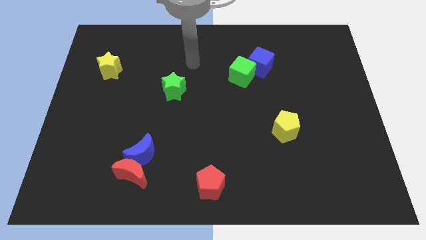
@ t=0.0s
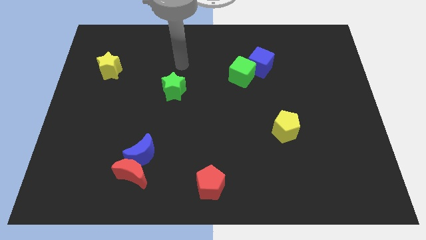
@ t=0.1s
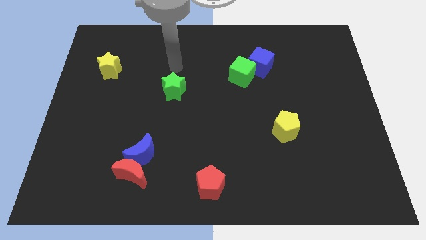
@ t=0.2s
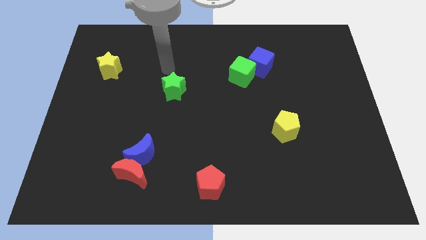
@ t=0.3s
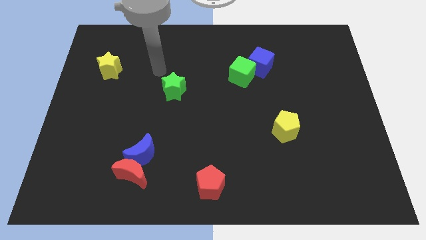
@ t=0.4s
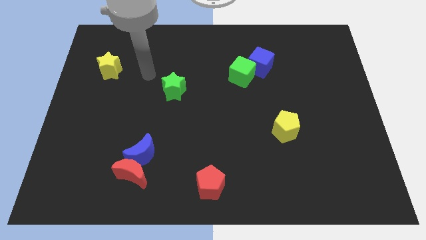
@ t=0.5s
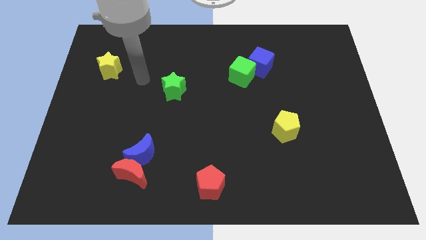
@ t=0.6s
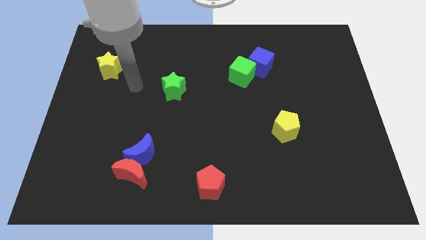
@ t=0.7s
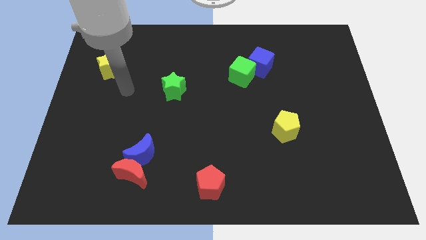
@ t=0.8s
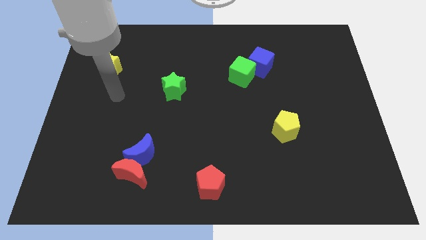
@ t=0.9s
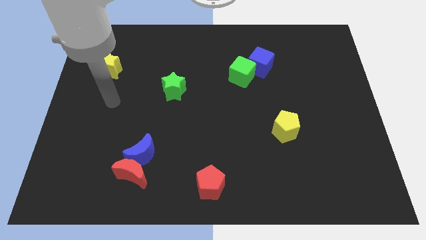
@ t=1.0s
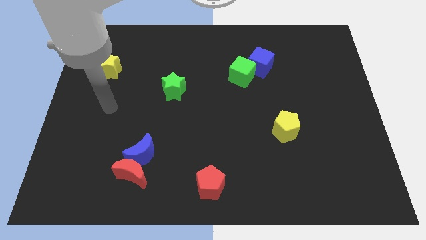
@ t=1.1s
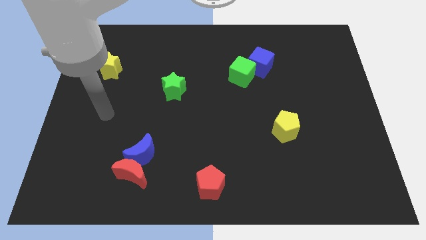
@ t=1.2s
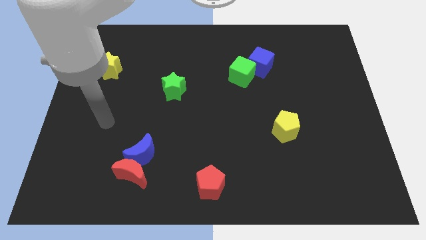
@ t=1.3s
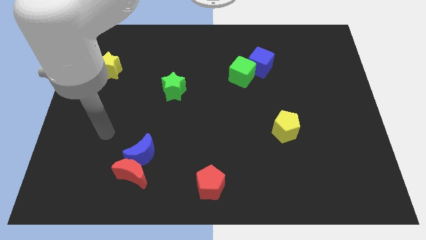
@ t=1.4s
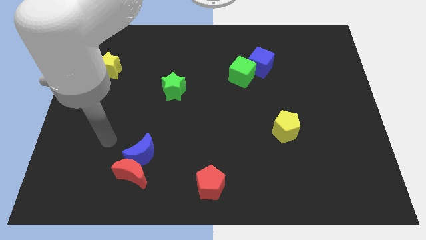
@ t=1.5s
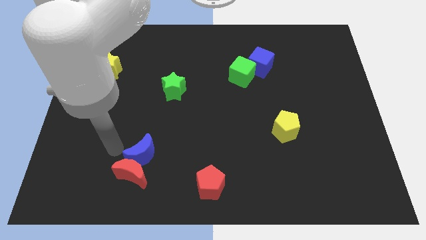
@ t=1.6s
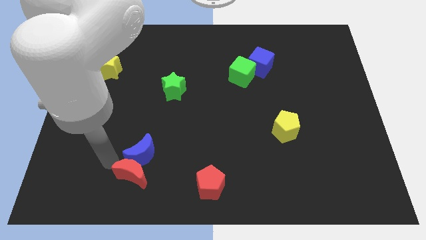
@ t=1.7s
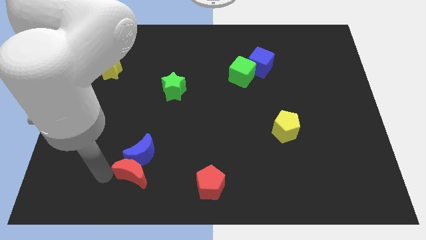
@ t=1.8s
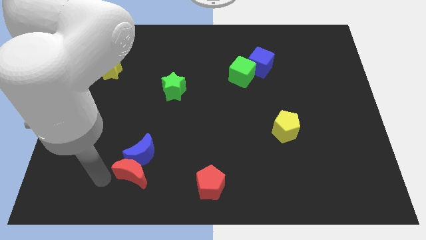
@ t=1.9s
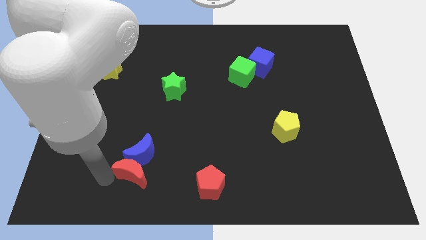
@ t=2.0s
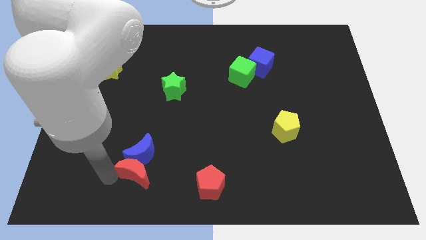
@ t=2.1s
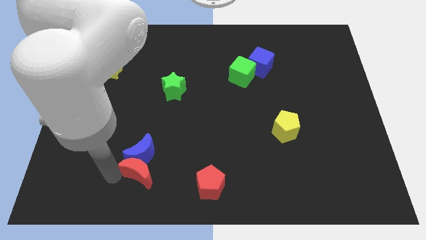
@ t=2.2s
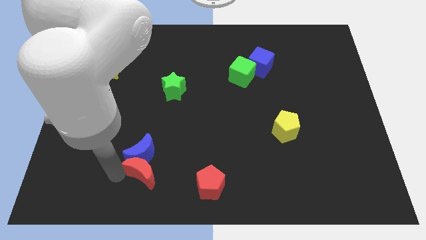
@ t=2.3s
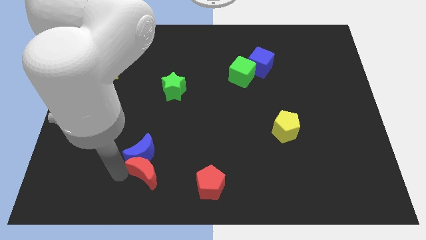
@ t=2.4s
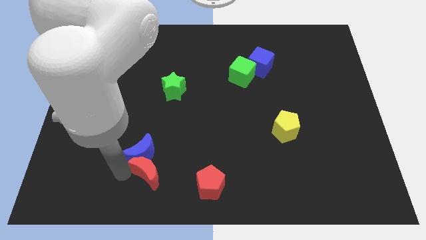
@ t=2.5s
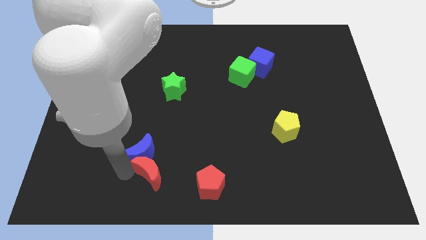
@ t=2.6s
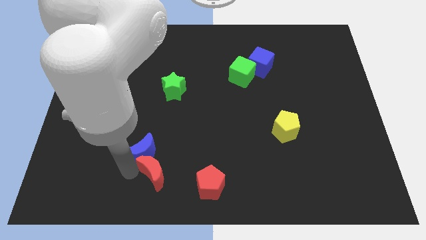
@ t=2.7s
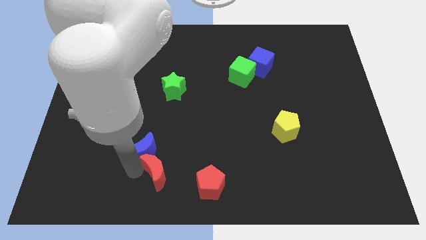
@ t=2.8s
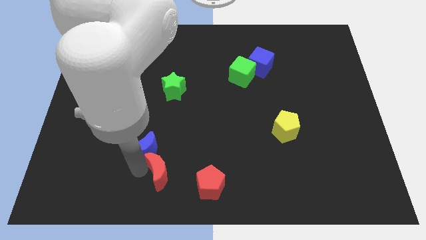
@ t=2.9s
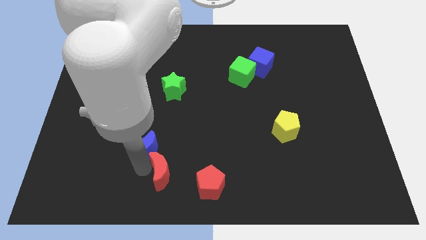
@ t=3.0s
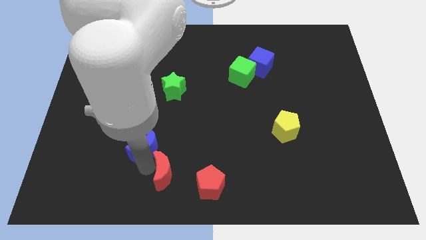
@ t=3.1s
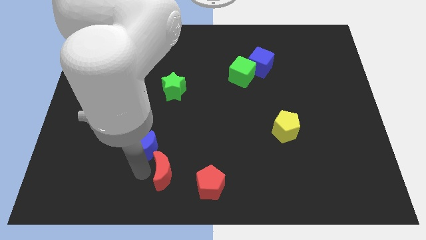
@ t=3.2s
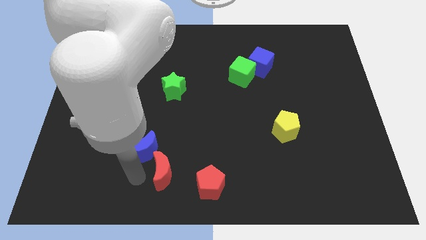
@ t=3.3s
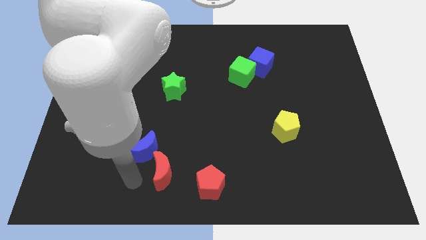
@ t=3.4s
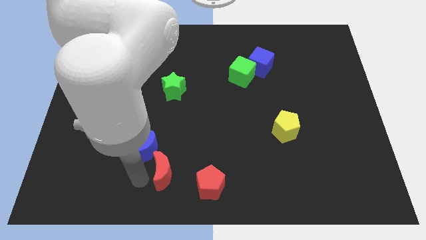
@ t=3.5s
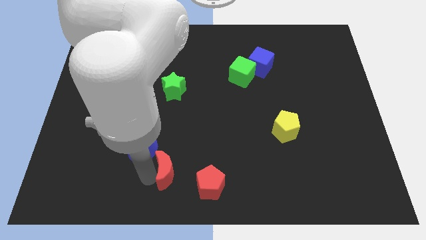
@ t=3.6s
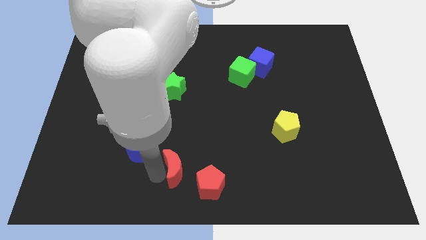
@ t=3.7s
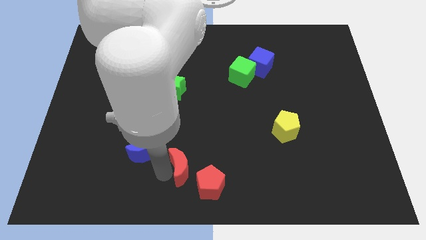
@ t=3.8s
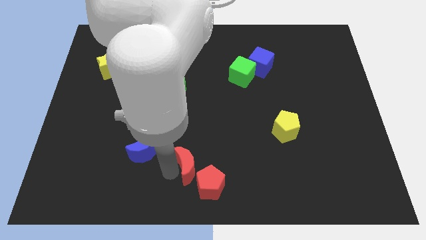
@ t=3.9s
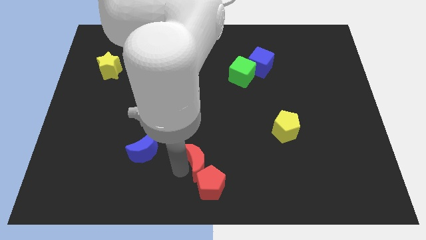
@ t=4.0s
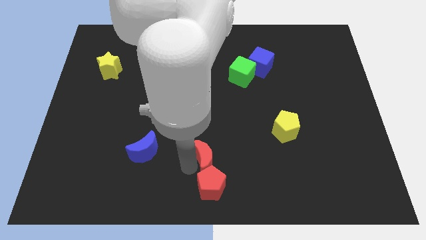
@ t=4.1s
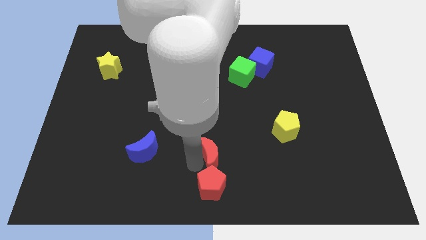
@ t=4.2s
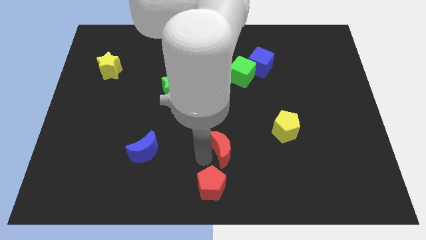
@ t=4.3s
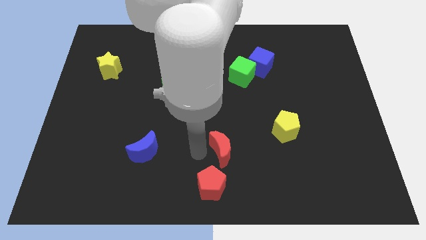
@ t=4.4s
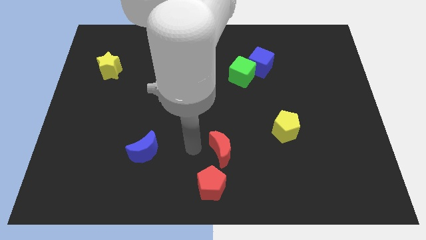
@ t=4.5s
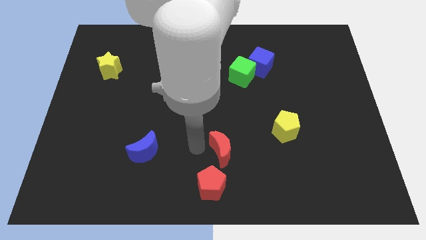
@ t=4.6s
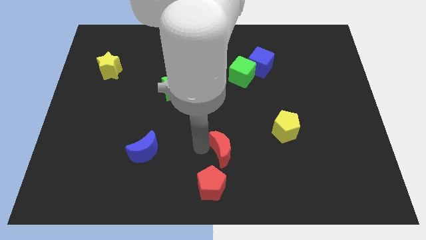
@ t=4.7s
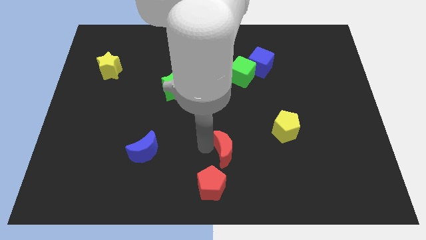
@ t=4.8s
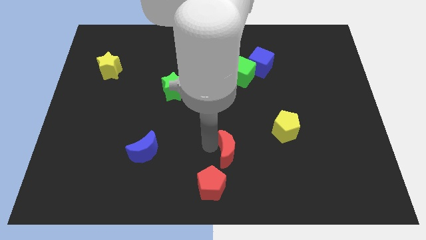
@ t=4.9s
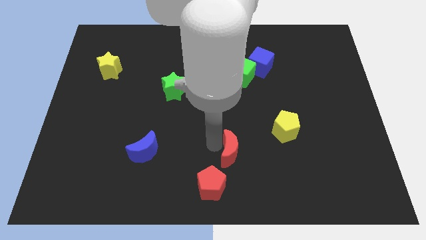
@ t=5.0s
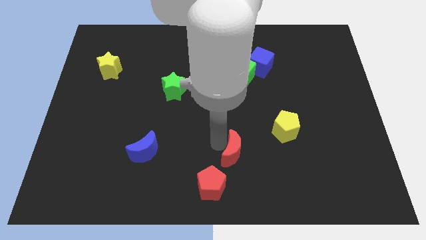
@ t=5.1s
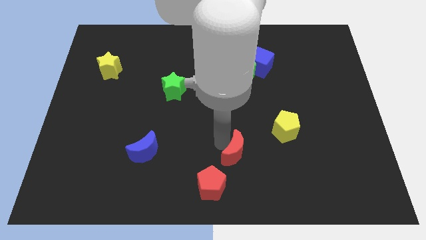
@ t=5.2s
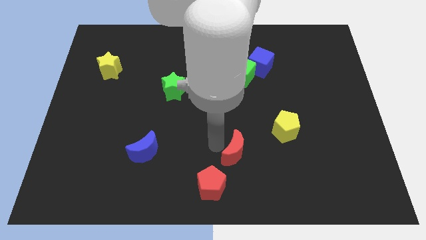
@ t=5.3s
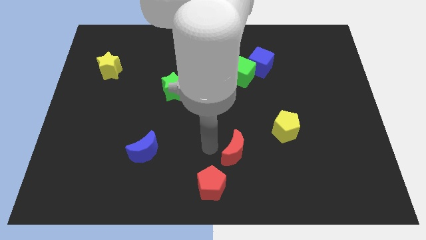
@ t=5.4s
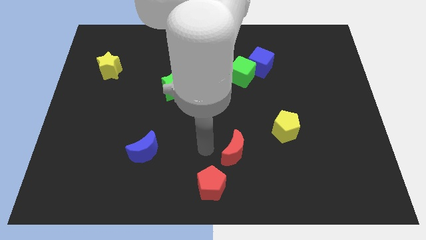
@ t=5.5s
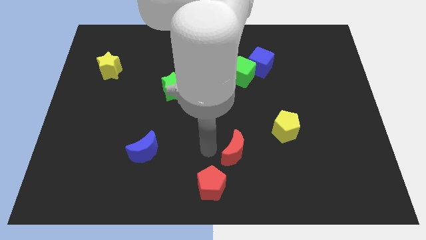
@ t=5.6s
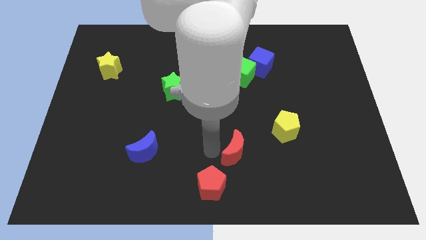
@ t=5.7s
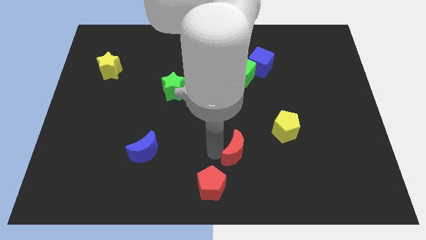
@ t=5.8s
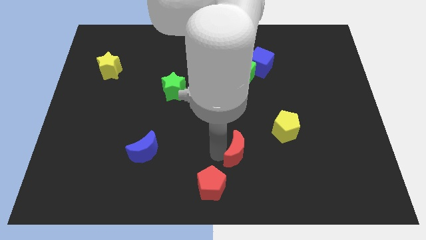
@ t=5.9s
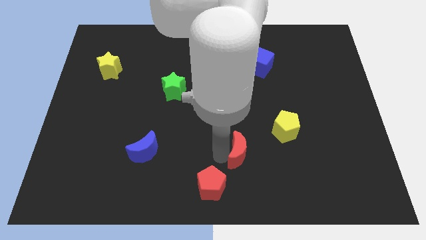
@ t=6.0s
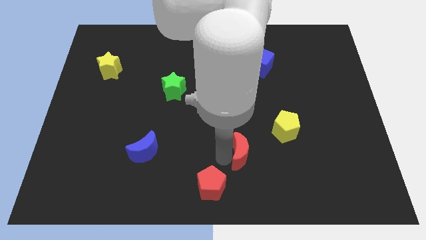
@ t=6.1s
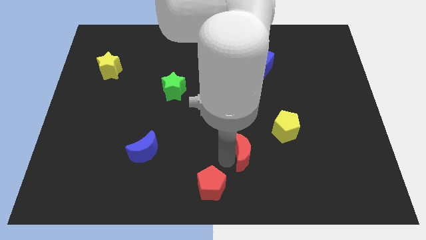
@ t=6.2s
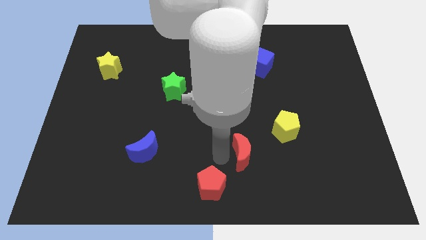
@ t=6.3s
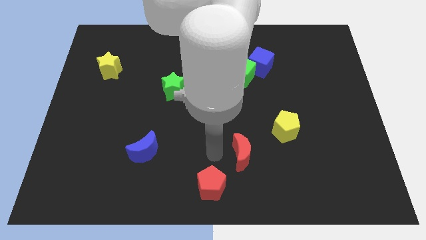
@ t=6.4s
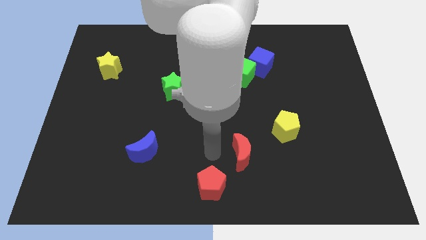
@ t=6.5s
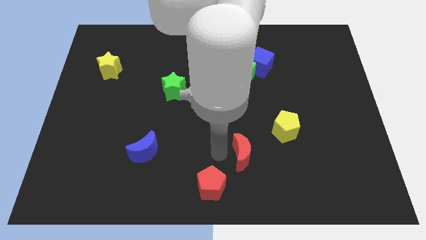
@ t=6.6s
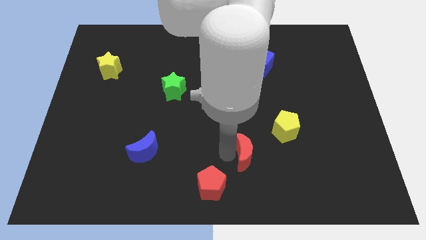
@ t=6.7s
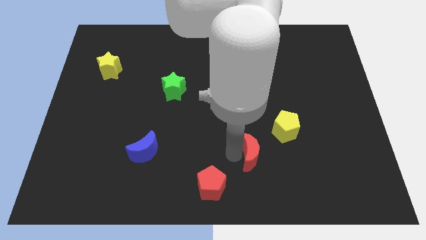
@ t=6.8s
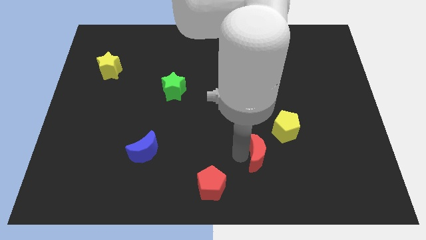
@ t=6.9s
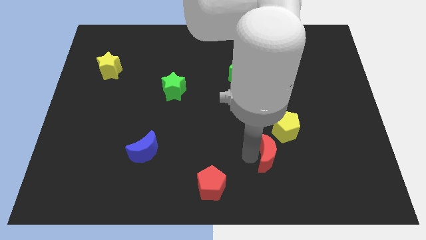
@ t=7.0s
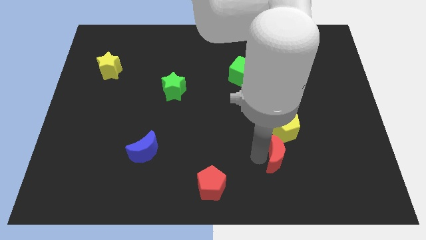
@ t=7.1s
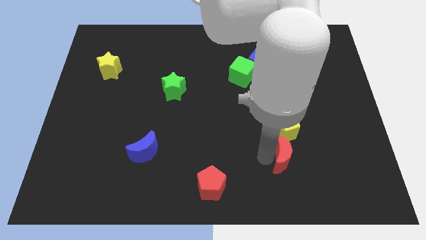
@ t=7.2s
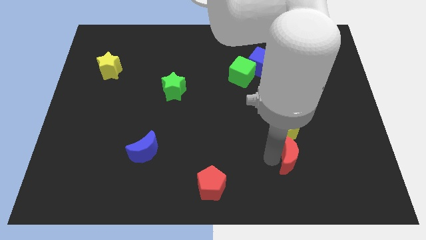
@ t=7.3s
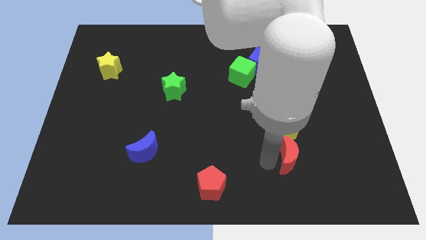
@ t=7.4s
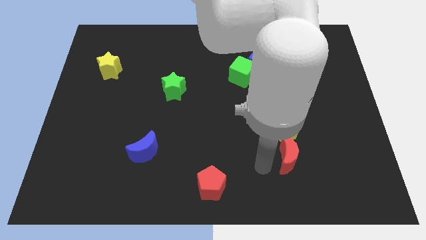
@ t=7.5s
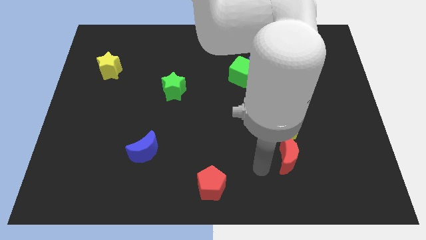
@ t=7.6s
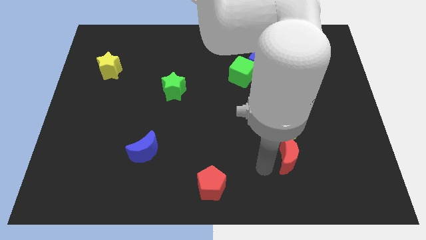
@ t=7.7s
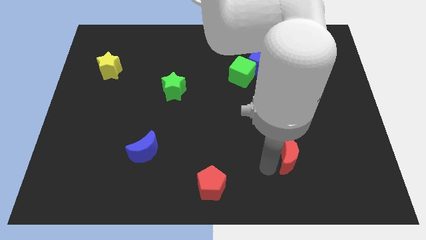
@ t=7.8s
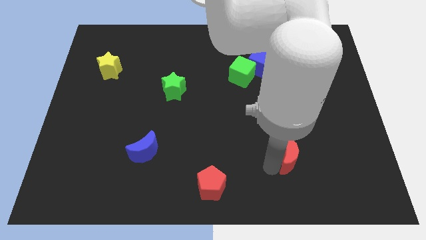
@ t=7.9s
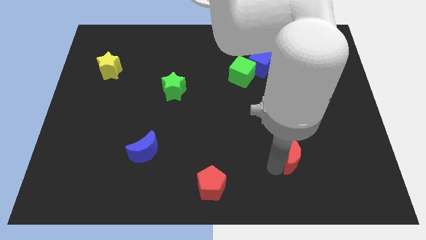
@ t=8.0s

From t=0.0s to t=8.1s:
put the red moon to the bottom right of the yellow pentagon

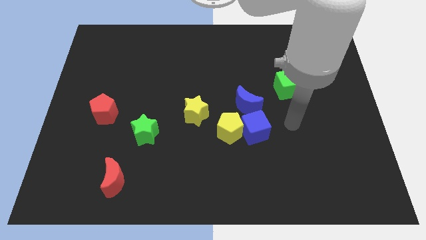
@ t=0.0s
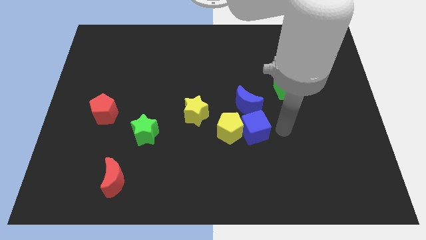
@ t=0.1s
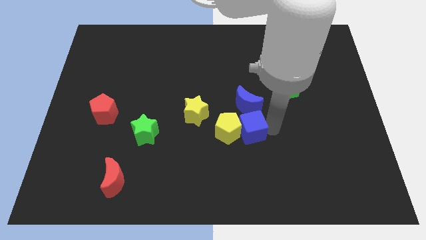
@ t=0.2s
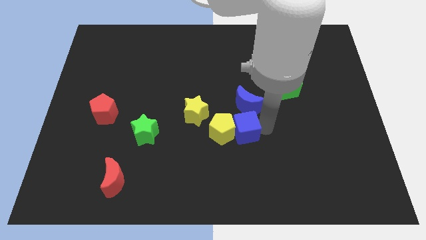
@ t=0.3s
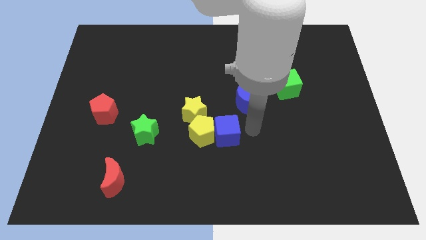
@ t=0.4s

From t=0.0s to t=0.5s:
slide the yellow pentagon to the right of the green star
